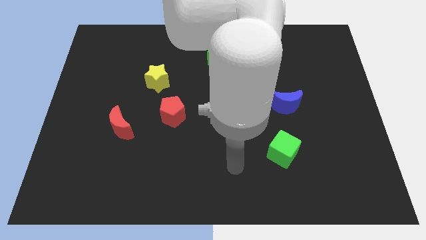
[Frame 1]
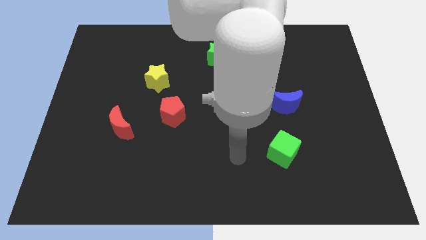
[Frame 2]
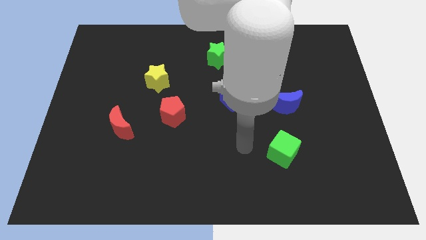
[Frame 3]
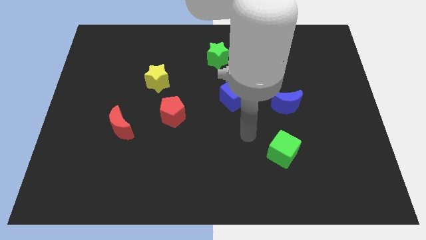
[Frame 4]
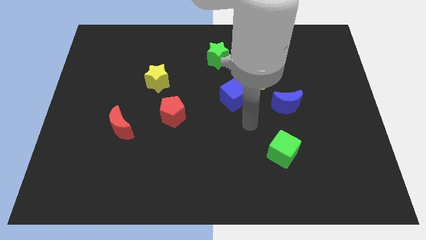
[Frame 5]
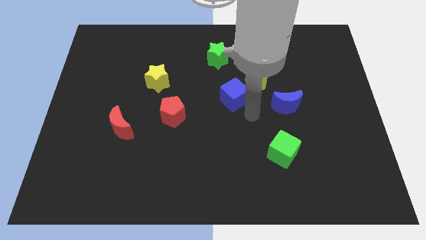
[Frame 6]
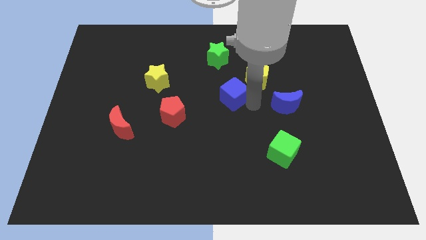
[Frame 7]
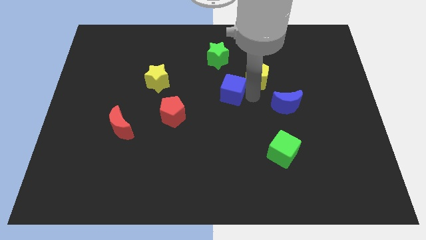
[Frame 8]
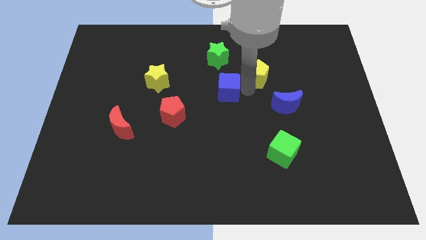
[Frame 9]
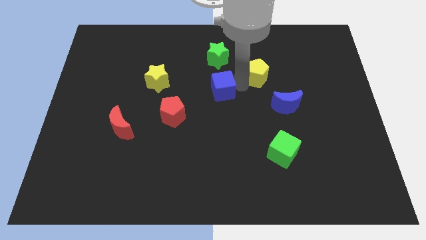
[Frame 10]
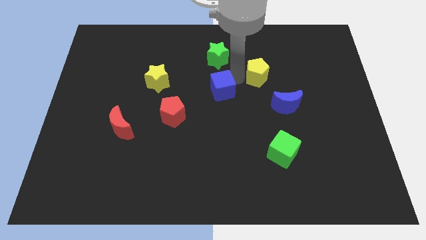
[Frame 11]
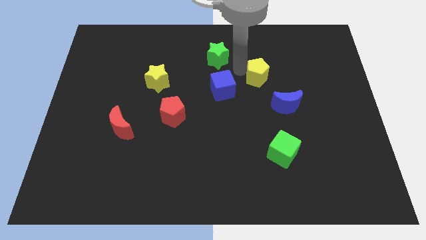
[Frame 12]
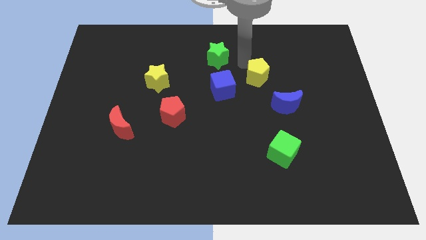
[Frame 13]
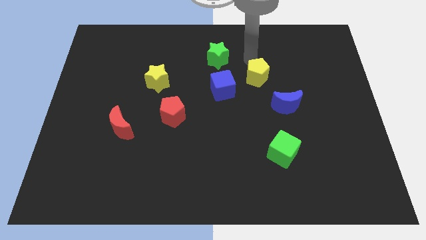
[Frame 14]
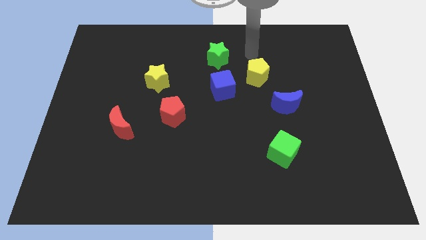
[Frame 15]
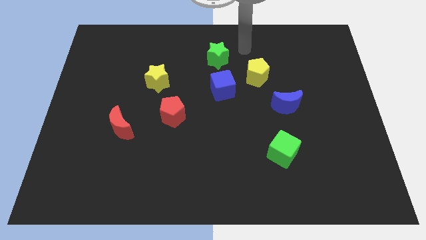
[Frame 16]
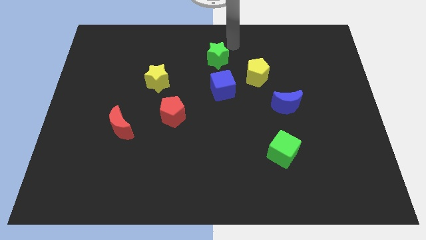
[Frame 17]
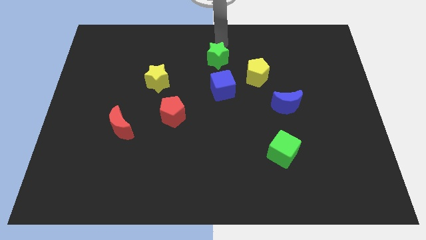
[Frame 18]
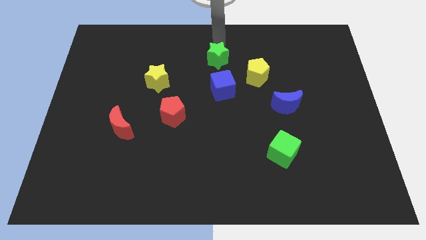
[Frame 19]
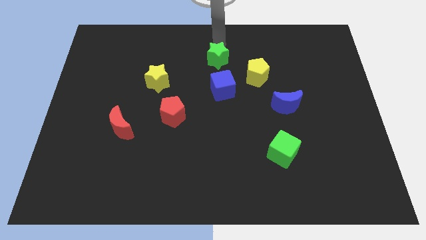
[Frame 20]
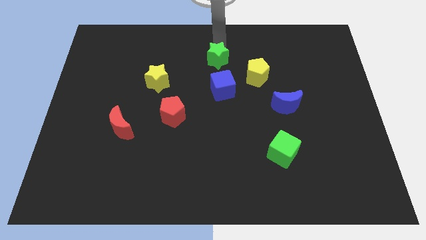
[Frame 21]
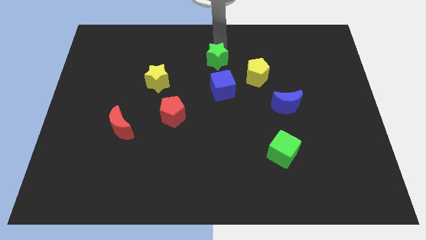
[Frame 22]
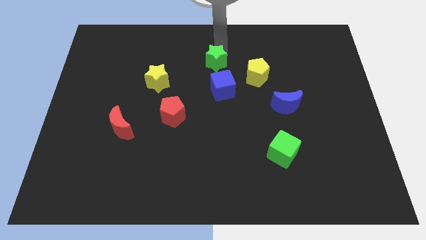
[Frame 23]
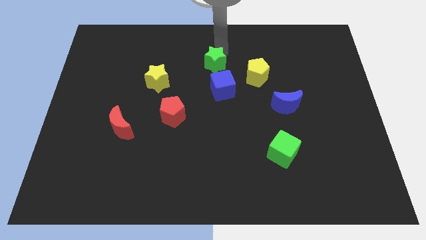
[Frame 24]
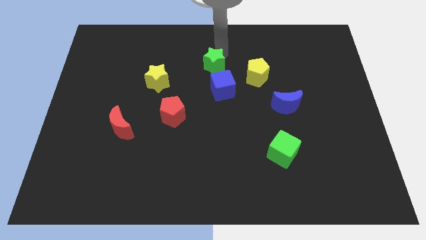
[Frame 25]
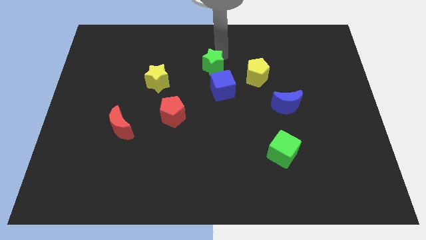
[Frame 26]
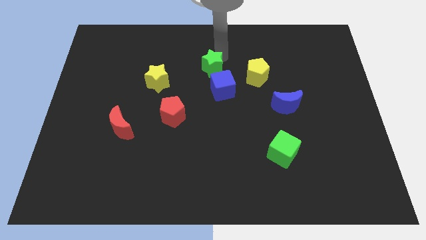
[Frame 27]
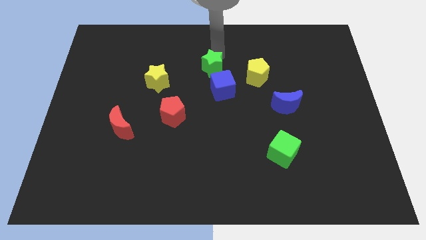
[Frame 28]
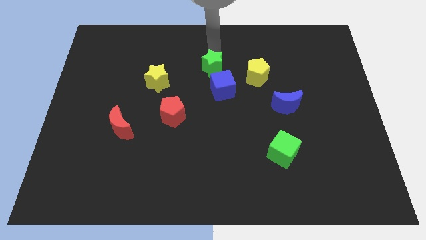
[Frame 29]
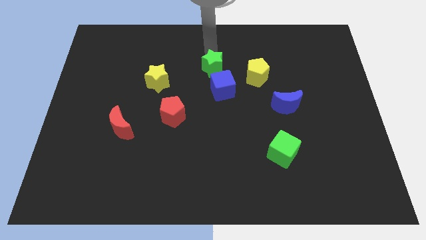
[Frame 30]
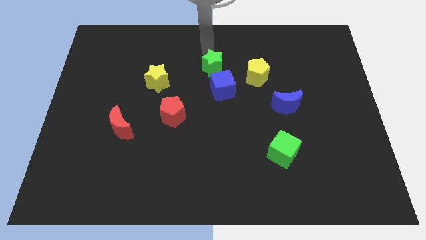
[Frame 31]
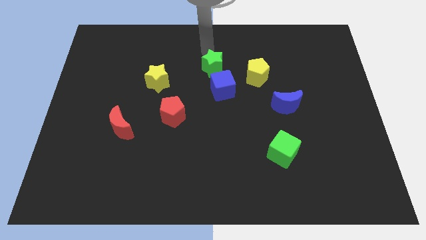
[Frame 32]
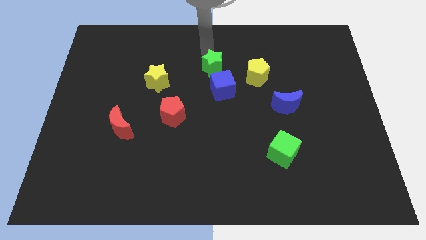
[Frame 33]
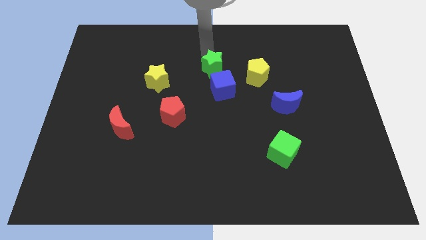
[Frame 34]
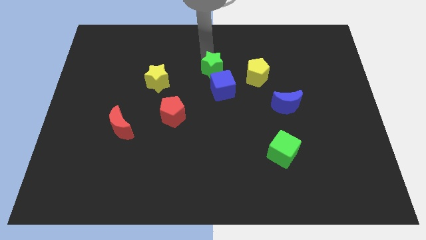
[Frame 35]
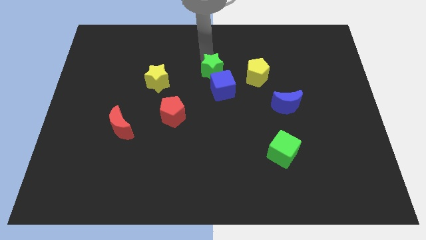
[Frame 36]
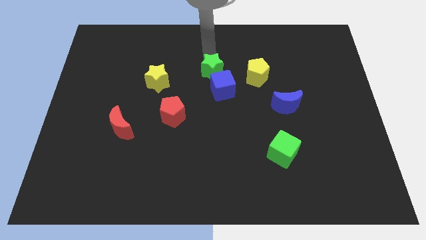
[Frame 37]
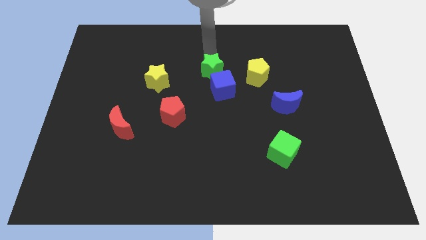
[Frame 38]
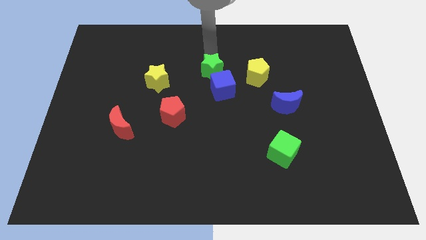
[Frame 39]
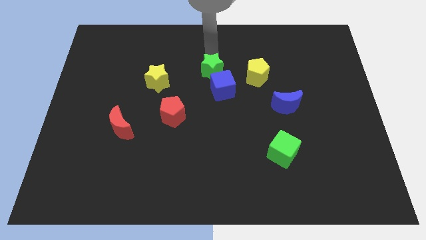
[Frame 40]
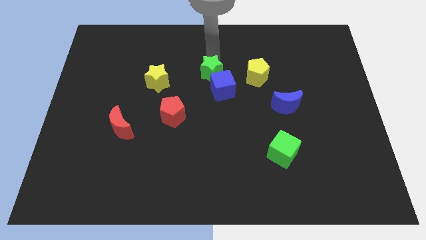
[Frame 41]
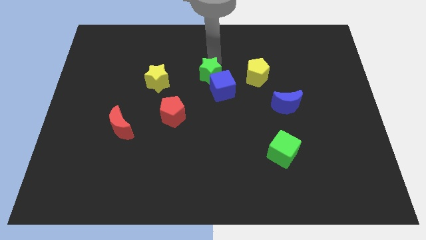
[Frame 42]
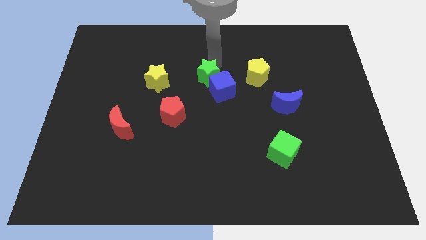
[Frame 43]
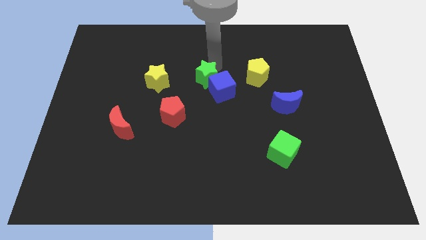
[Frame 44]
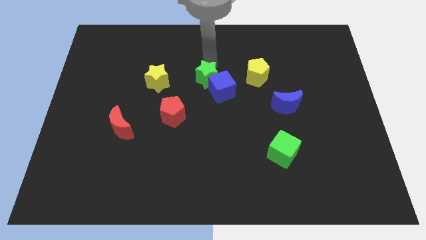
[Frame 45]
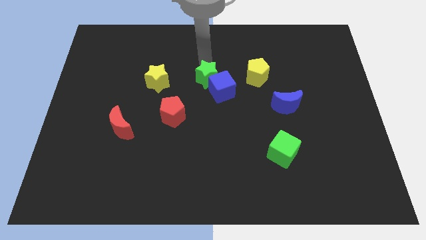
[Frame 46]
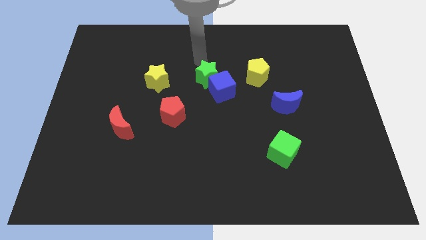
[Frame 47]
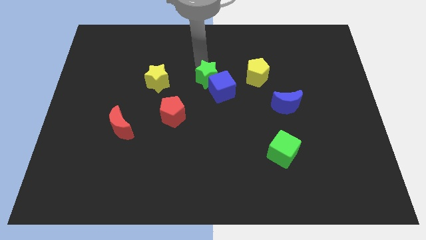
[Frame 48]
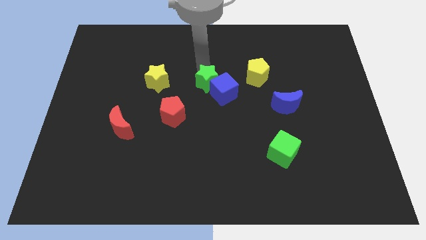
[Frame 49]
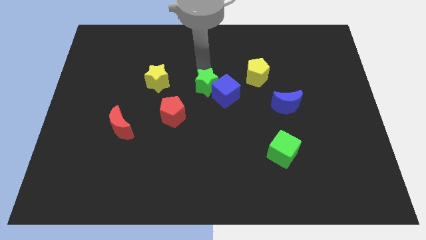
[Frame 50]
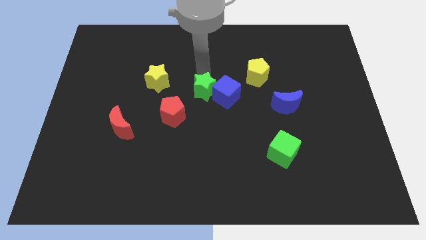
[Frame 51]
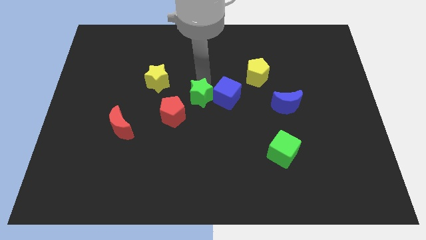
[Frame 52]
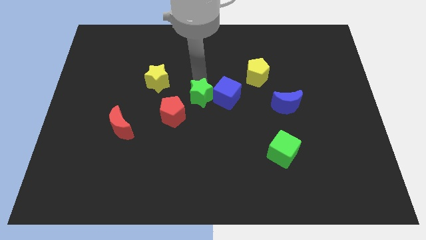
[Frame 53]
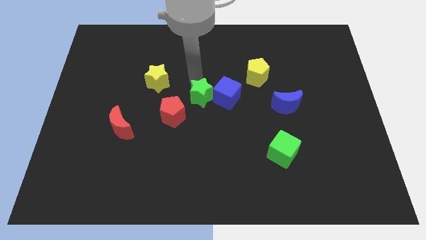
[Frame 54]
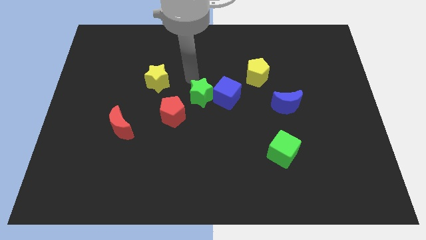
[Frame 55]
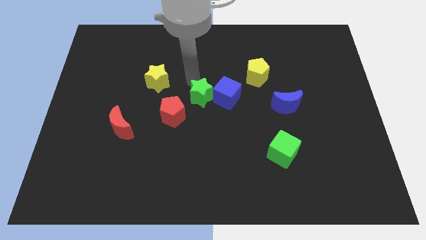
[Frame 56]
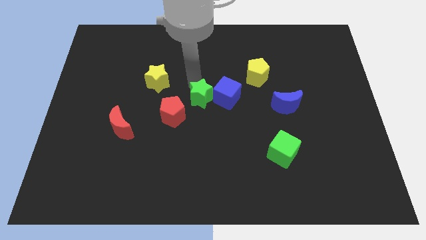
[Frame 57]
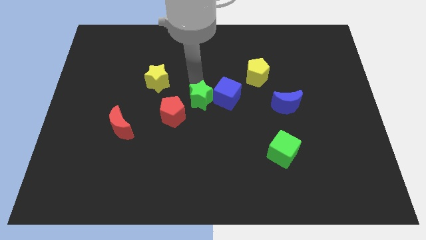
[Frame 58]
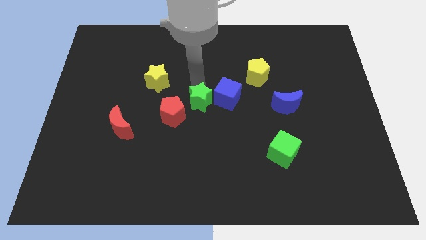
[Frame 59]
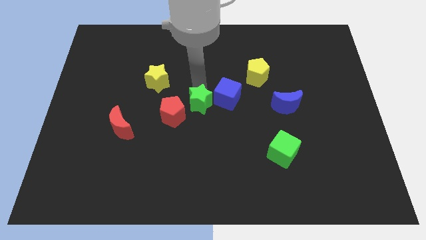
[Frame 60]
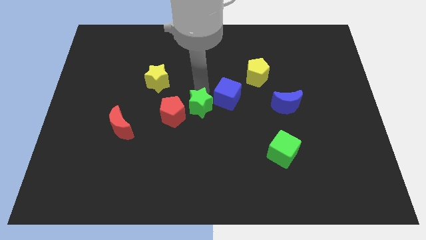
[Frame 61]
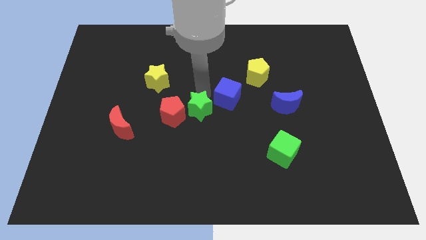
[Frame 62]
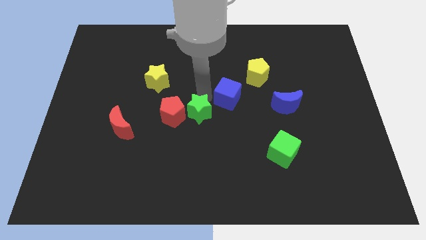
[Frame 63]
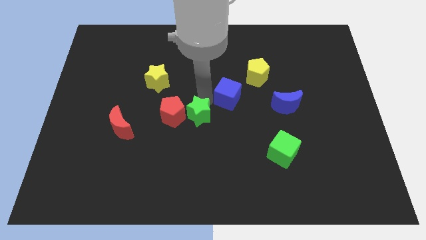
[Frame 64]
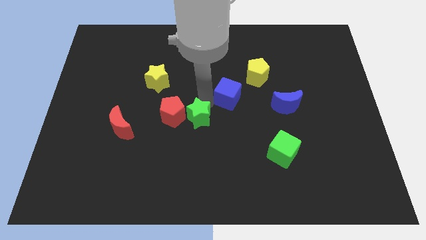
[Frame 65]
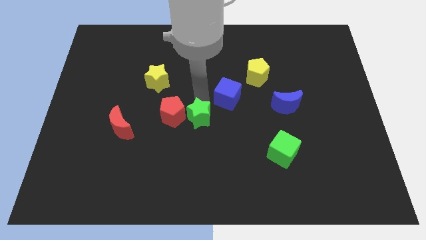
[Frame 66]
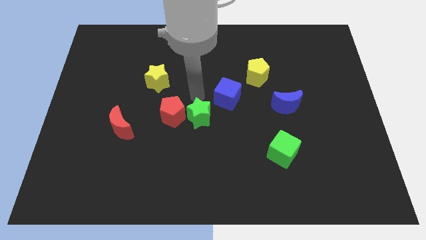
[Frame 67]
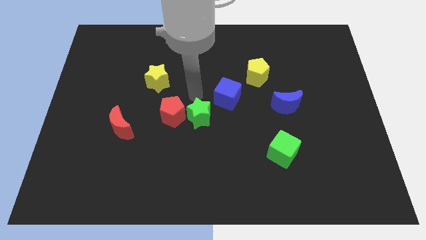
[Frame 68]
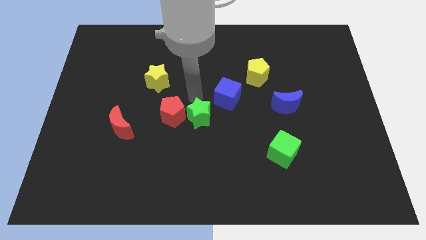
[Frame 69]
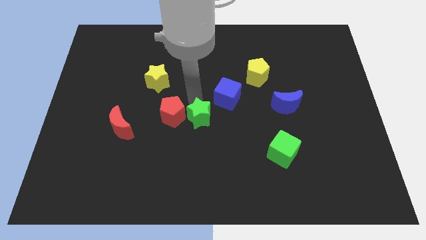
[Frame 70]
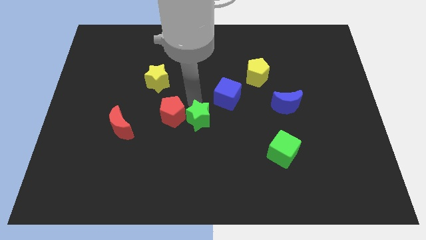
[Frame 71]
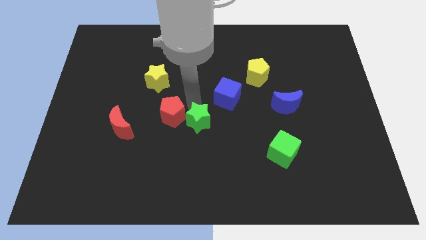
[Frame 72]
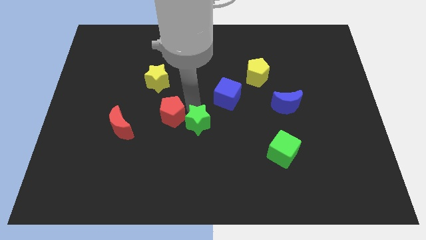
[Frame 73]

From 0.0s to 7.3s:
move the green star downwards

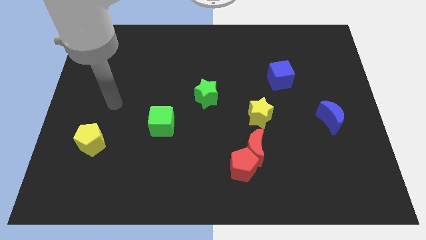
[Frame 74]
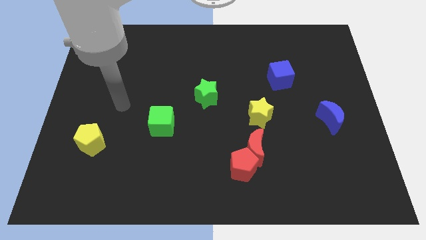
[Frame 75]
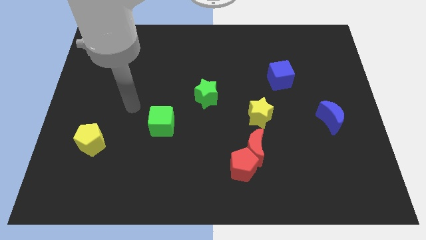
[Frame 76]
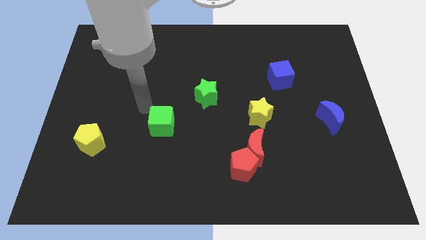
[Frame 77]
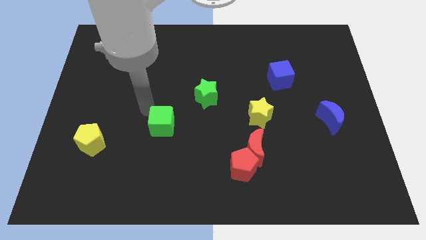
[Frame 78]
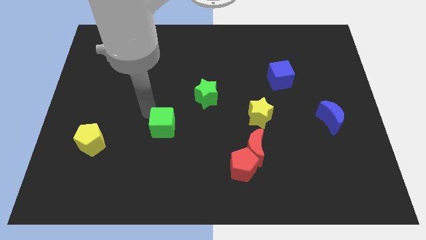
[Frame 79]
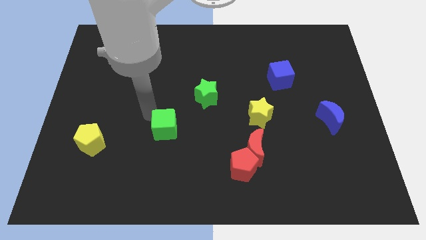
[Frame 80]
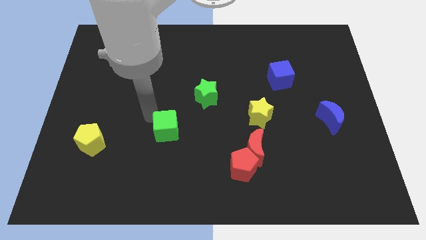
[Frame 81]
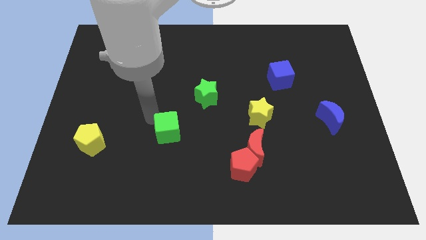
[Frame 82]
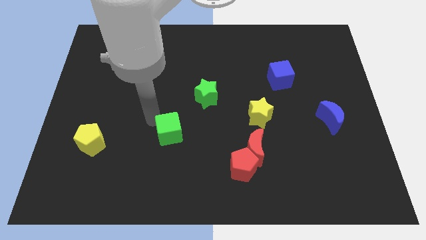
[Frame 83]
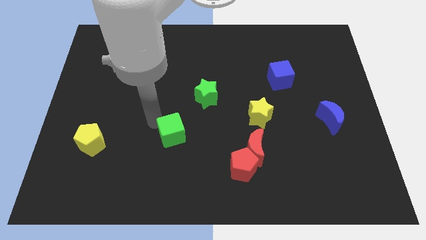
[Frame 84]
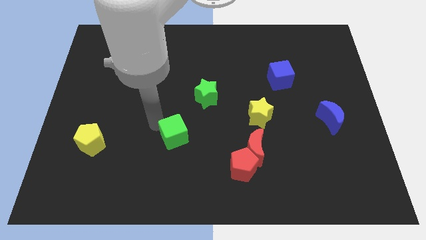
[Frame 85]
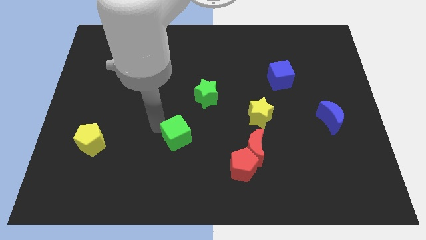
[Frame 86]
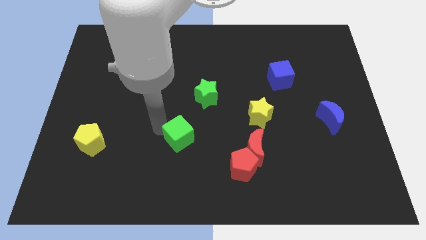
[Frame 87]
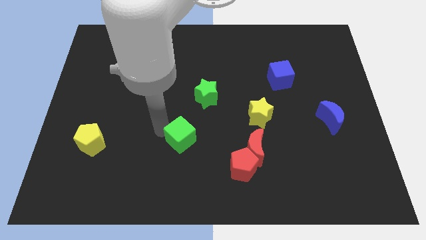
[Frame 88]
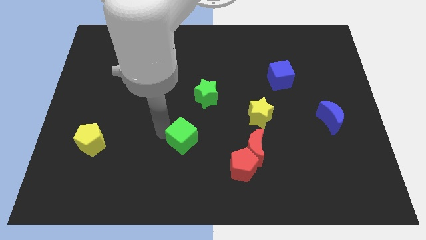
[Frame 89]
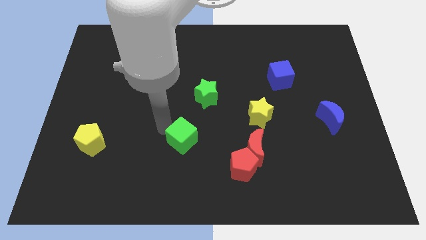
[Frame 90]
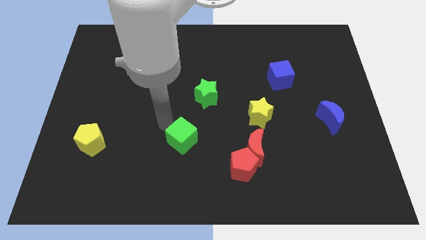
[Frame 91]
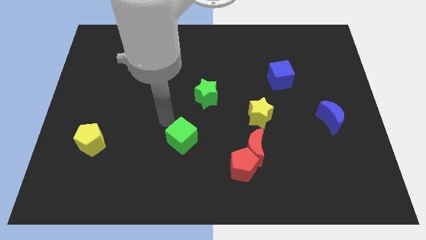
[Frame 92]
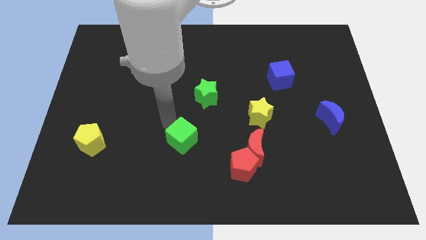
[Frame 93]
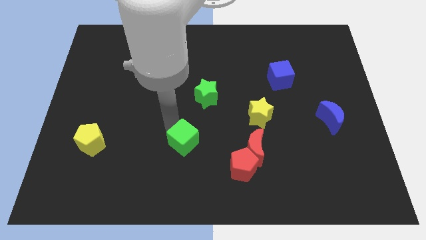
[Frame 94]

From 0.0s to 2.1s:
move the green cube slightly down and to the right diagonally
